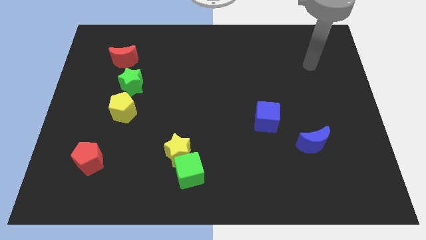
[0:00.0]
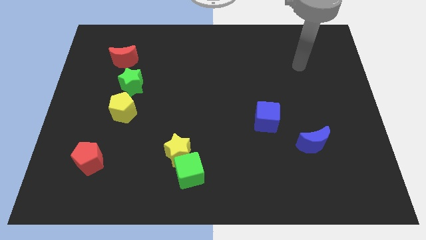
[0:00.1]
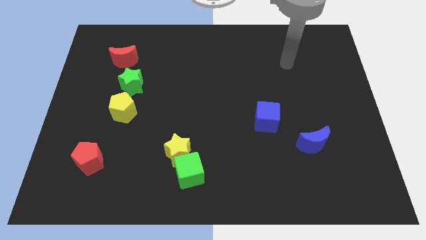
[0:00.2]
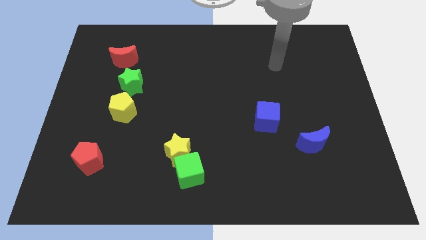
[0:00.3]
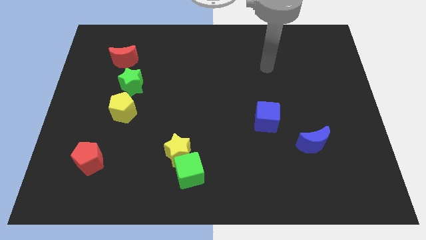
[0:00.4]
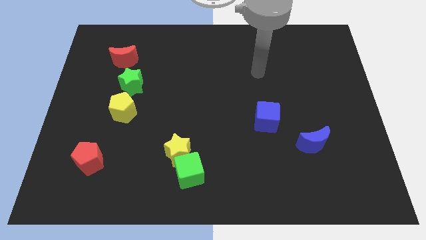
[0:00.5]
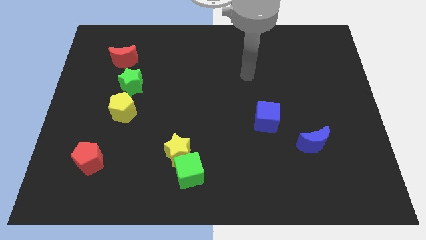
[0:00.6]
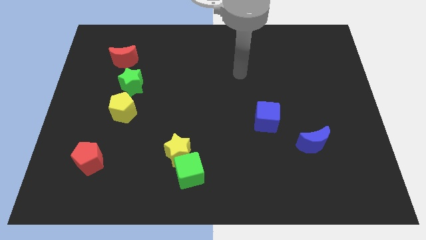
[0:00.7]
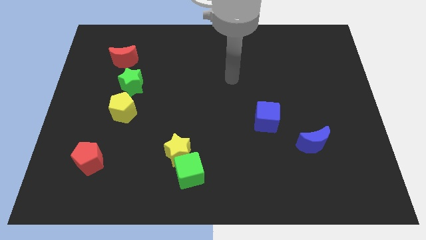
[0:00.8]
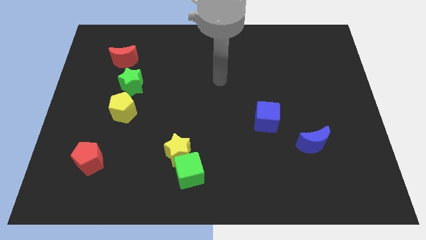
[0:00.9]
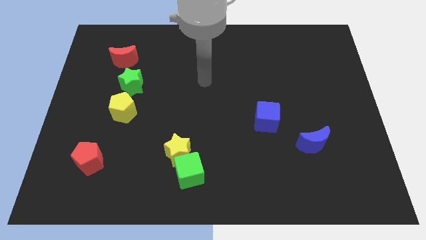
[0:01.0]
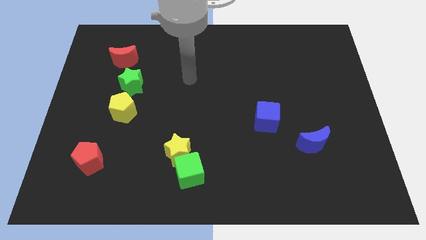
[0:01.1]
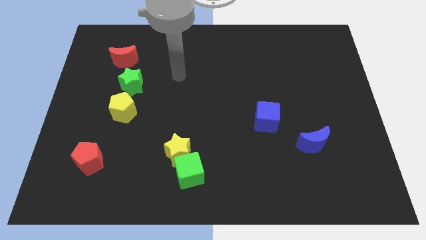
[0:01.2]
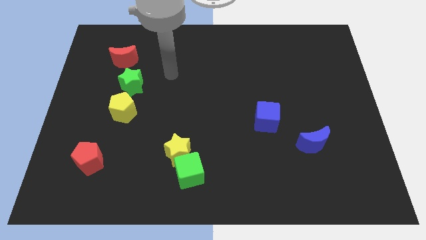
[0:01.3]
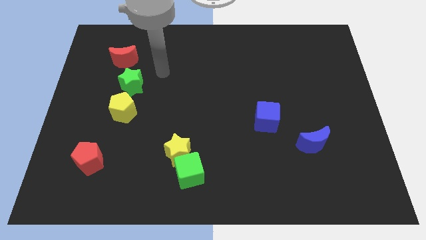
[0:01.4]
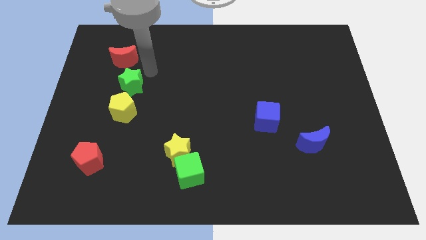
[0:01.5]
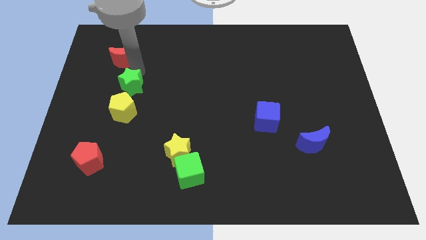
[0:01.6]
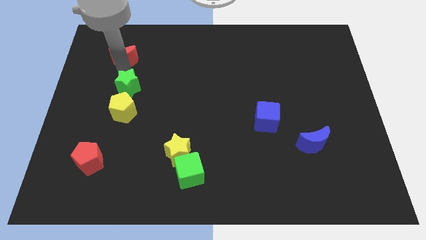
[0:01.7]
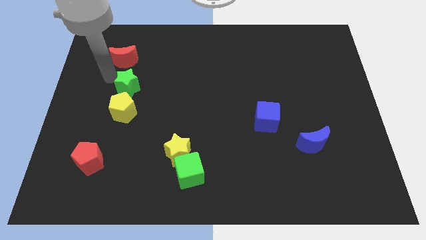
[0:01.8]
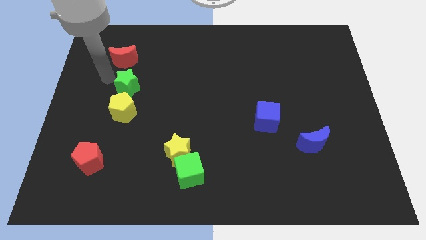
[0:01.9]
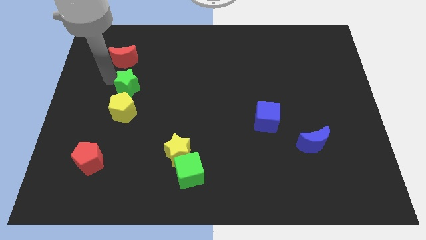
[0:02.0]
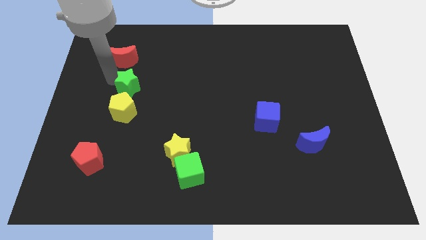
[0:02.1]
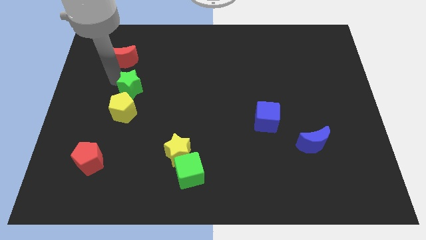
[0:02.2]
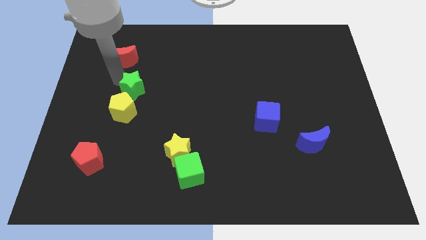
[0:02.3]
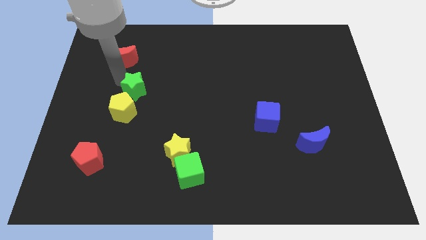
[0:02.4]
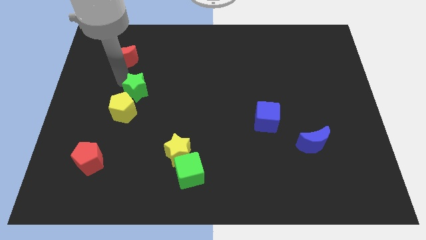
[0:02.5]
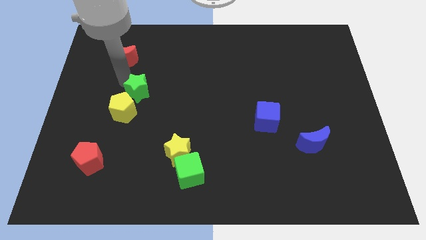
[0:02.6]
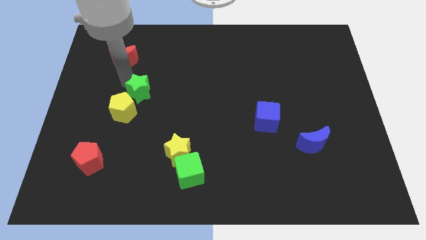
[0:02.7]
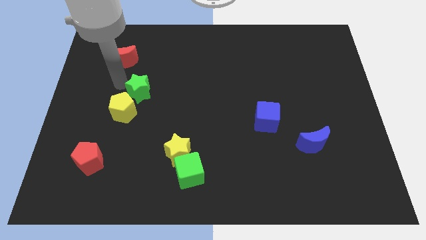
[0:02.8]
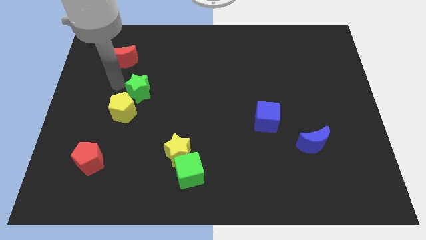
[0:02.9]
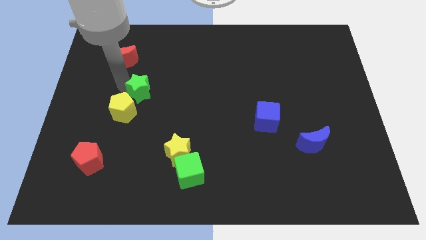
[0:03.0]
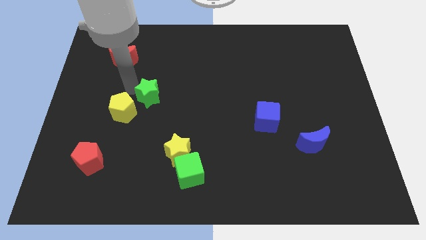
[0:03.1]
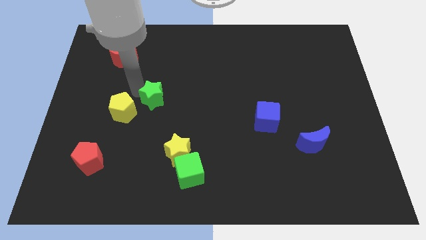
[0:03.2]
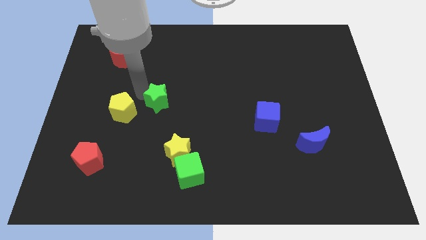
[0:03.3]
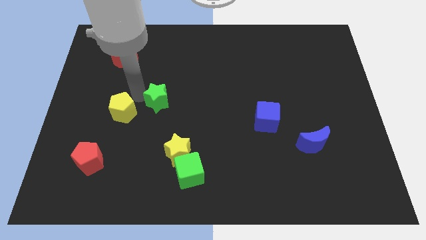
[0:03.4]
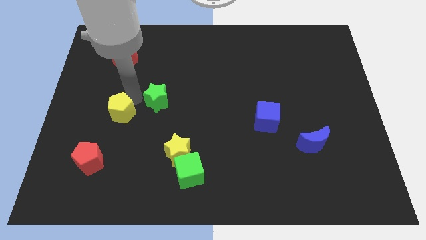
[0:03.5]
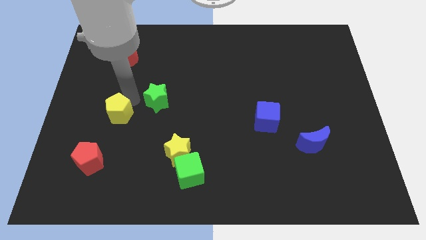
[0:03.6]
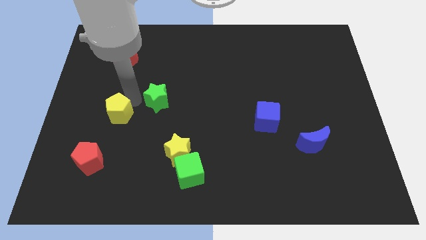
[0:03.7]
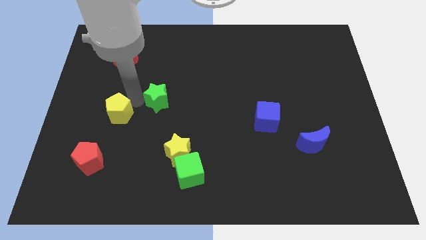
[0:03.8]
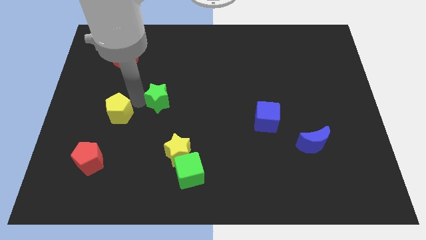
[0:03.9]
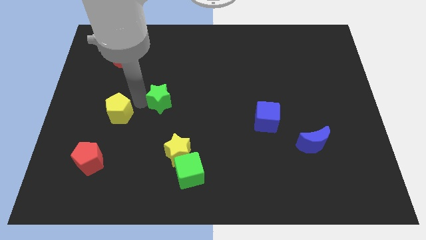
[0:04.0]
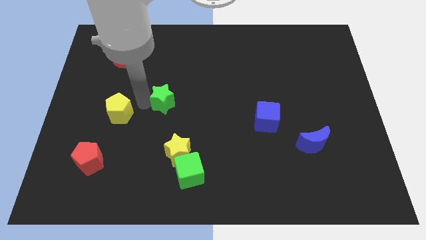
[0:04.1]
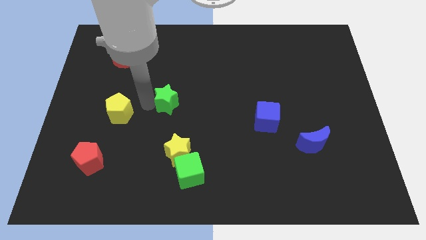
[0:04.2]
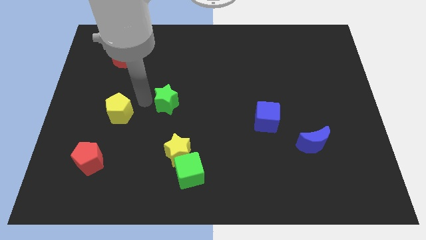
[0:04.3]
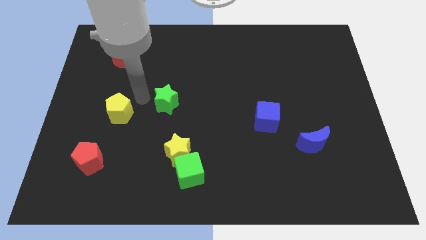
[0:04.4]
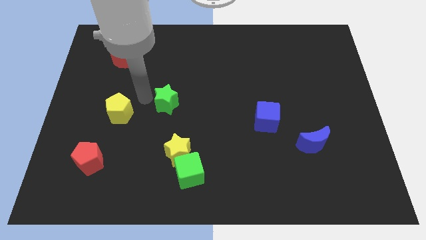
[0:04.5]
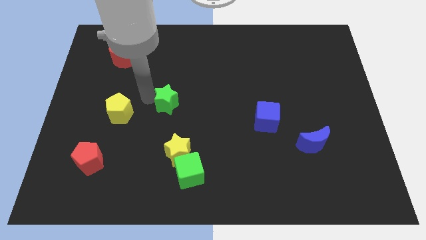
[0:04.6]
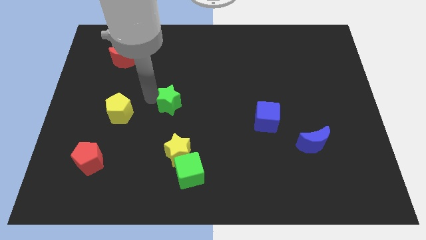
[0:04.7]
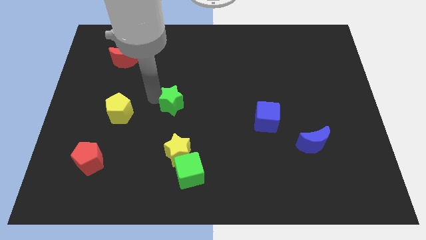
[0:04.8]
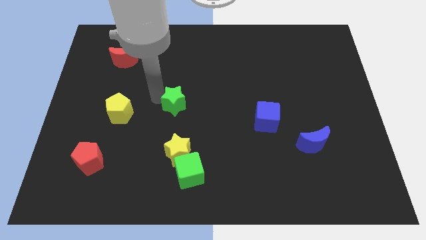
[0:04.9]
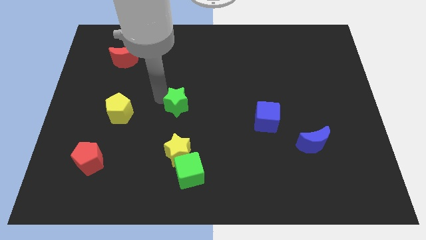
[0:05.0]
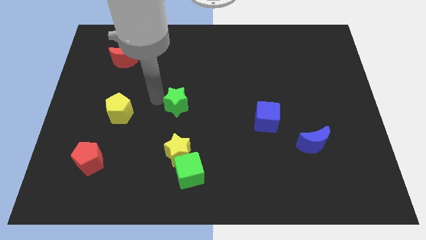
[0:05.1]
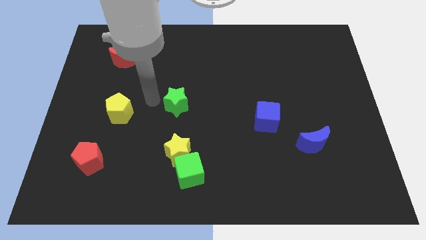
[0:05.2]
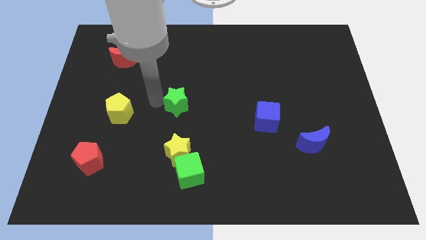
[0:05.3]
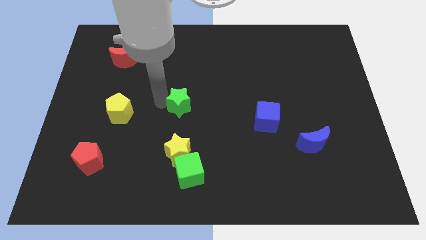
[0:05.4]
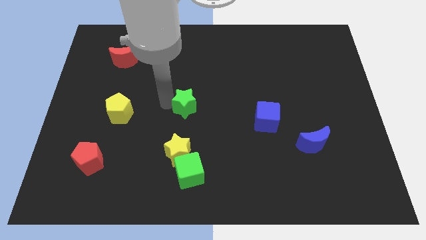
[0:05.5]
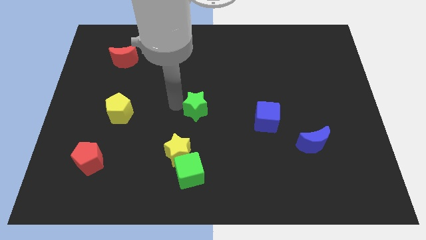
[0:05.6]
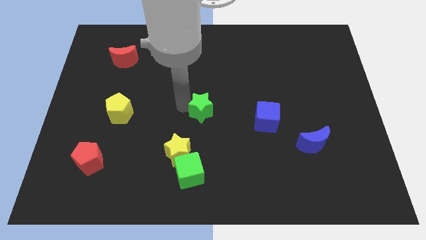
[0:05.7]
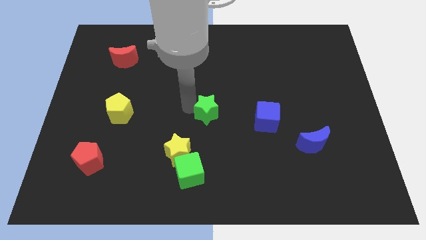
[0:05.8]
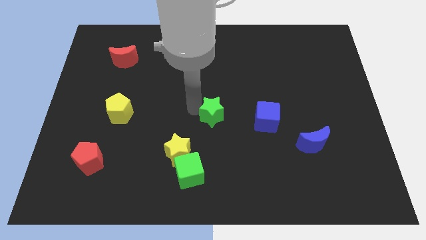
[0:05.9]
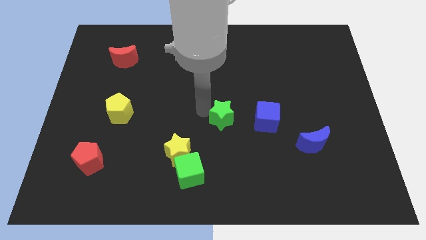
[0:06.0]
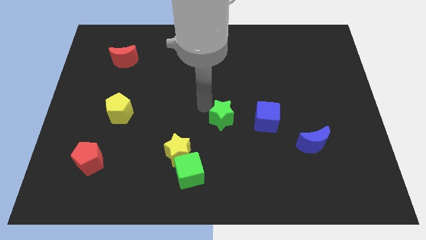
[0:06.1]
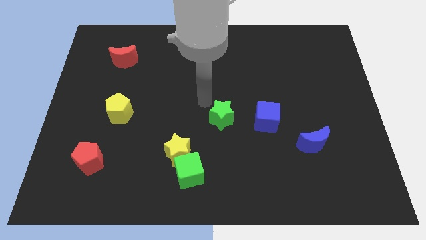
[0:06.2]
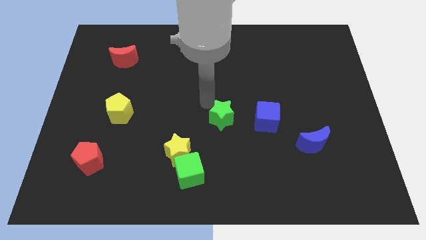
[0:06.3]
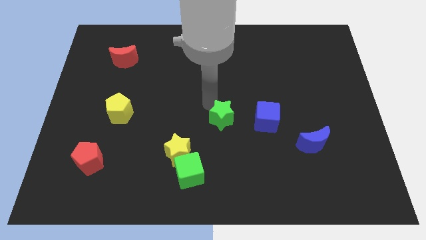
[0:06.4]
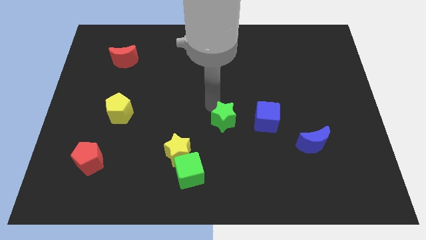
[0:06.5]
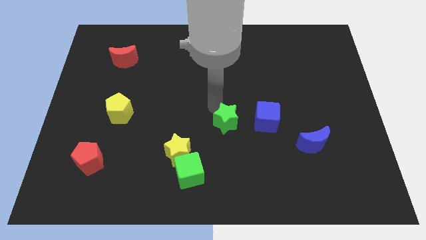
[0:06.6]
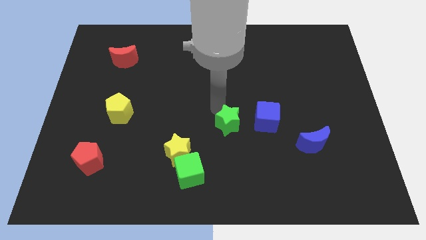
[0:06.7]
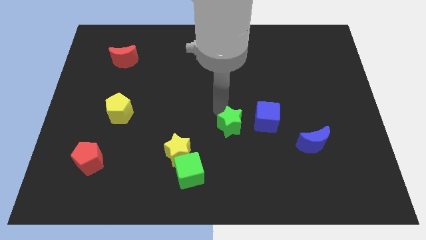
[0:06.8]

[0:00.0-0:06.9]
slide the green star diagonally down and to the left of the blue cube

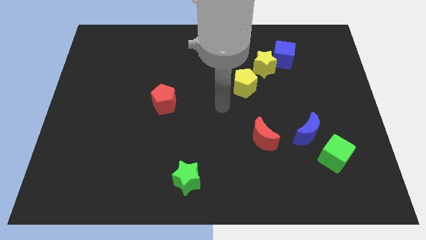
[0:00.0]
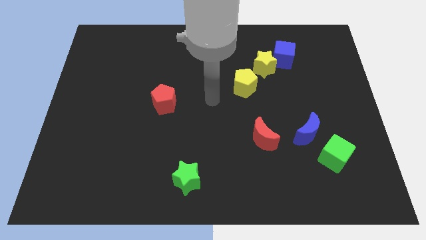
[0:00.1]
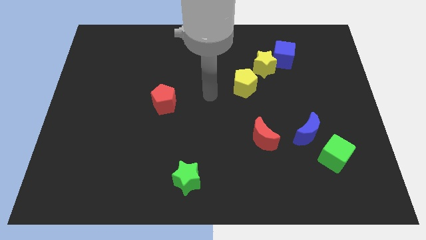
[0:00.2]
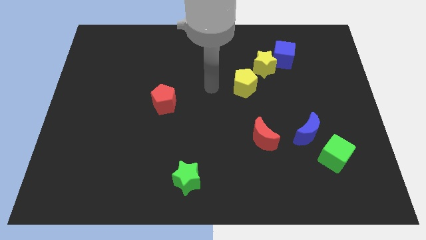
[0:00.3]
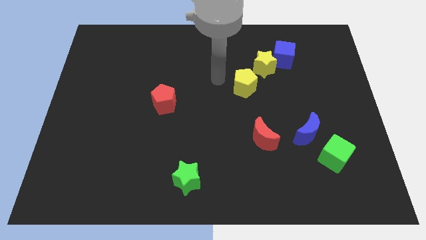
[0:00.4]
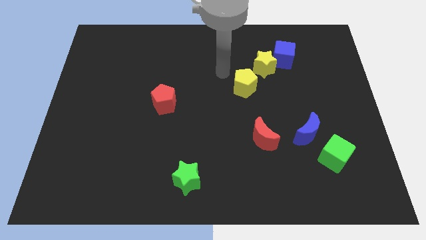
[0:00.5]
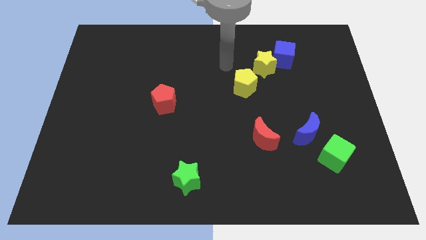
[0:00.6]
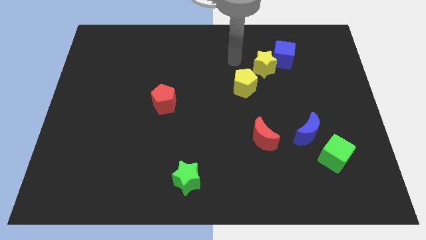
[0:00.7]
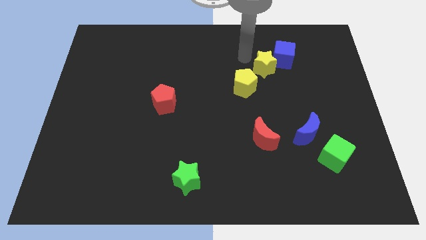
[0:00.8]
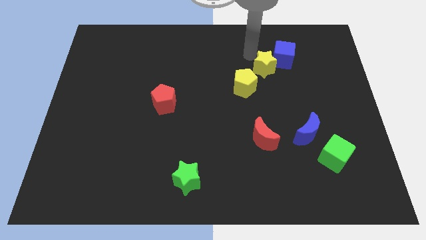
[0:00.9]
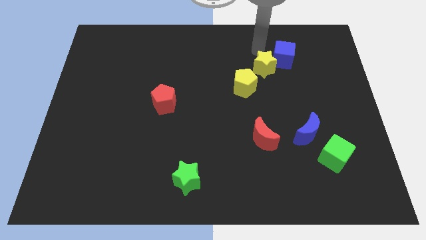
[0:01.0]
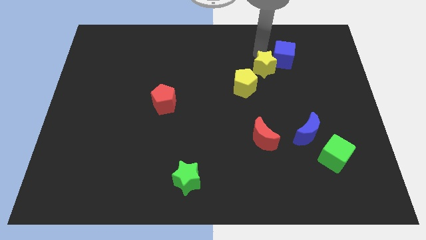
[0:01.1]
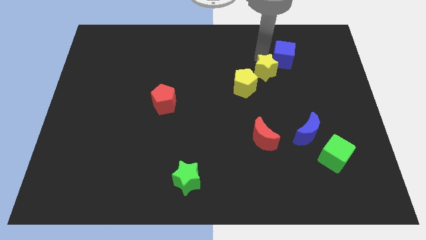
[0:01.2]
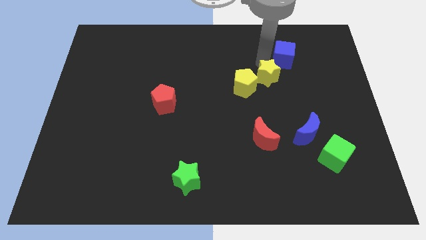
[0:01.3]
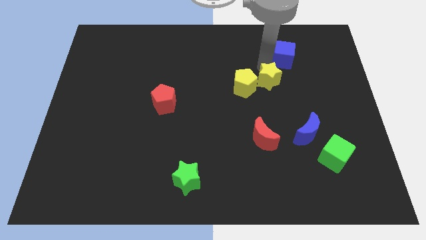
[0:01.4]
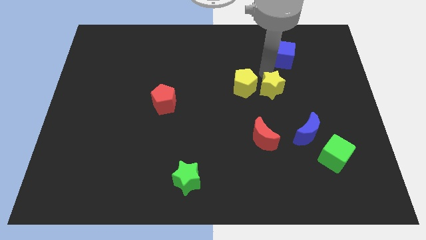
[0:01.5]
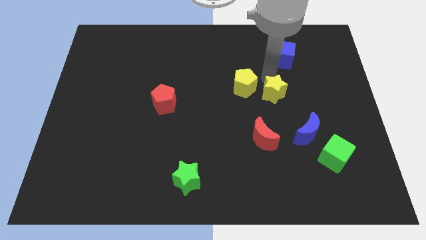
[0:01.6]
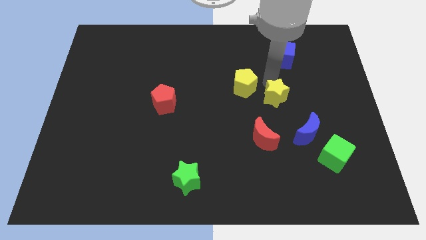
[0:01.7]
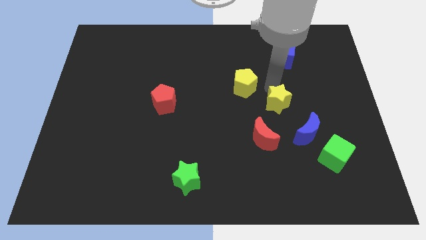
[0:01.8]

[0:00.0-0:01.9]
push the yellow star diagonally up and to the right of the red moon
